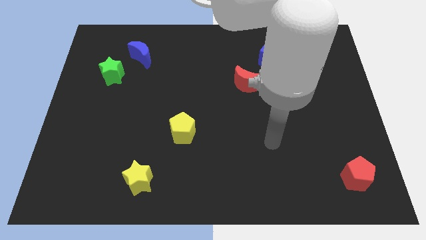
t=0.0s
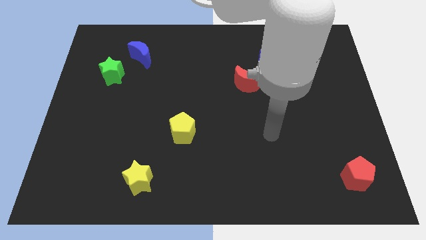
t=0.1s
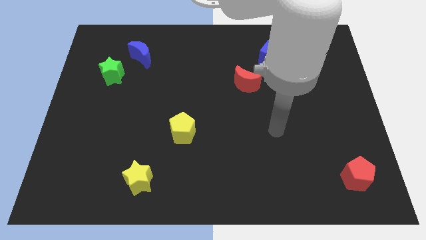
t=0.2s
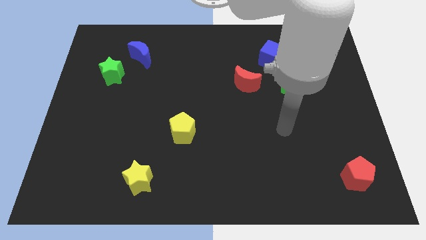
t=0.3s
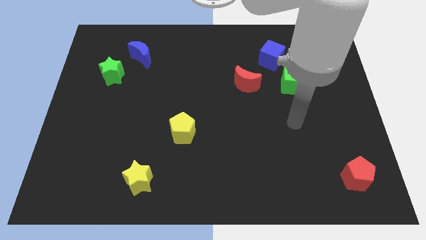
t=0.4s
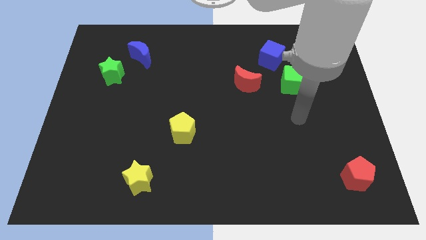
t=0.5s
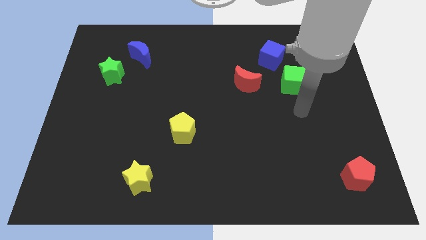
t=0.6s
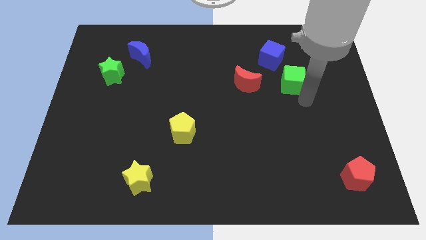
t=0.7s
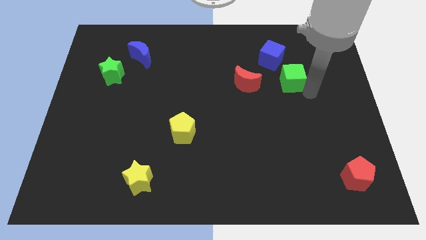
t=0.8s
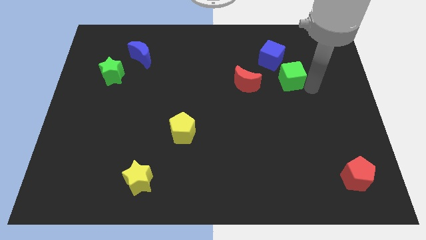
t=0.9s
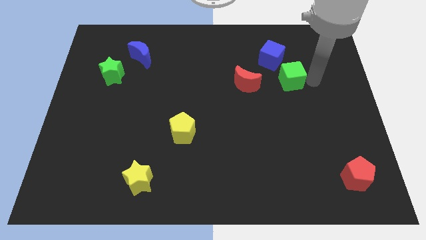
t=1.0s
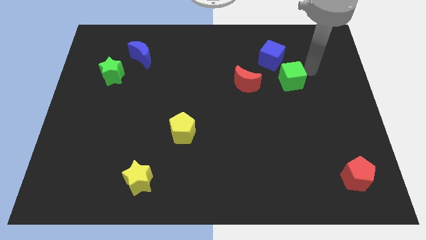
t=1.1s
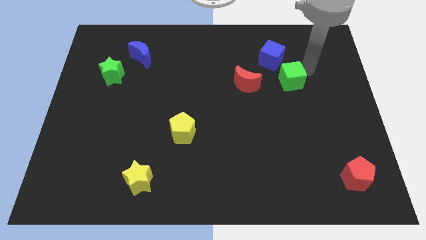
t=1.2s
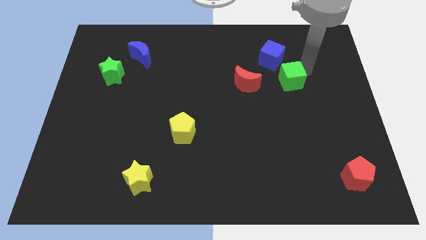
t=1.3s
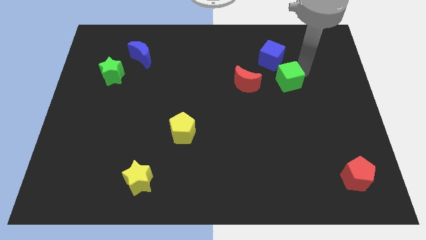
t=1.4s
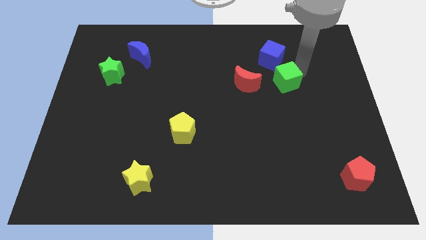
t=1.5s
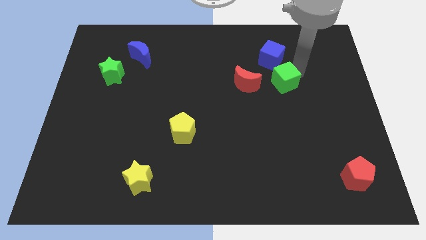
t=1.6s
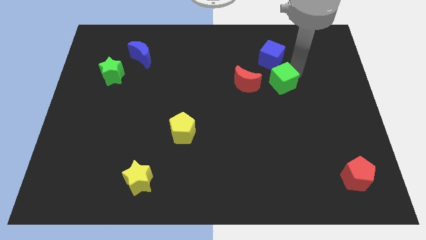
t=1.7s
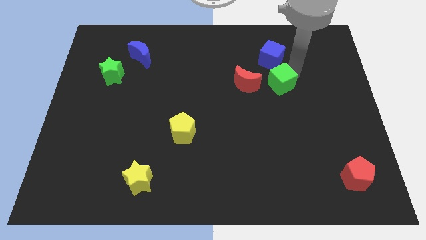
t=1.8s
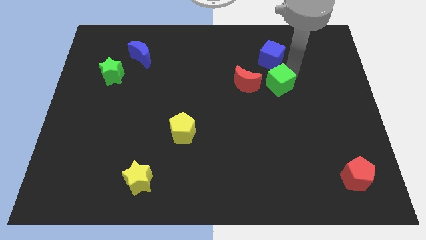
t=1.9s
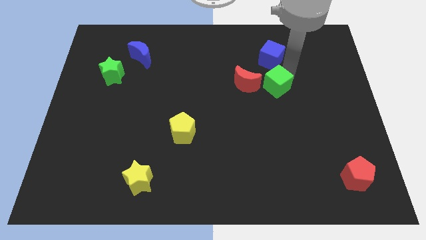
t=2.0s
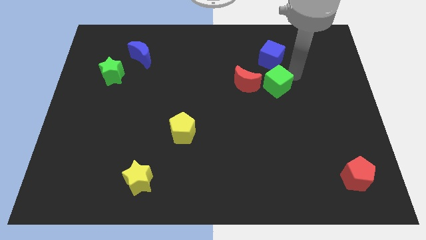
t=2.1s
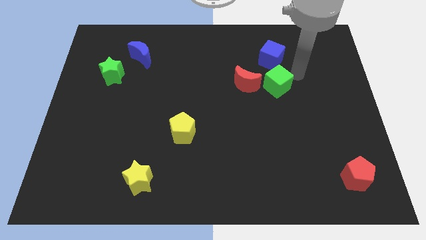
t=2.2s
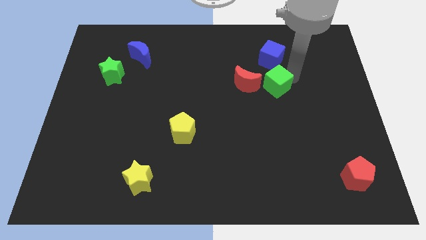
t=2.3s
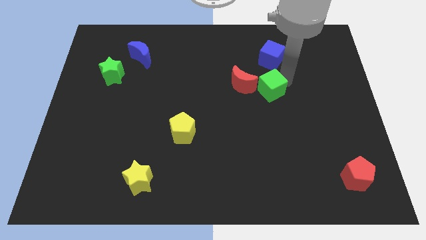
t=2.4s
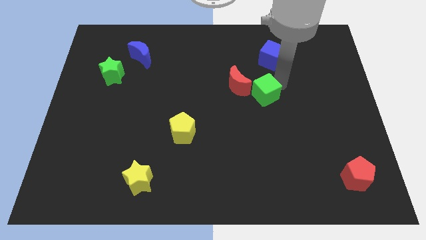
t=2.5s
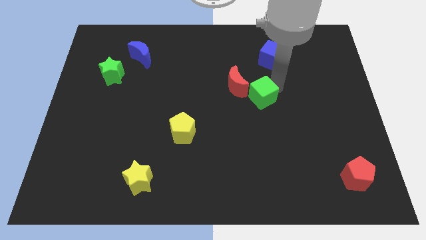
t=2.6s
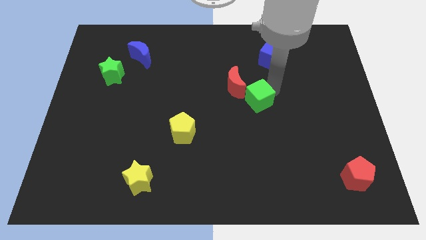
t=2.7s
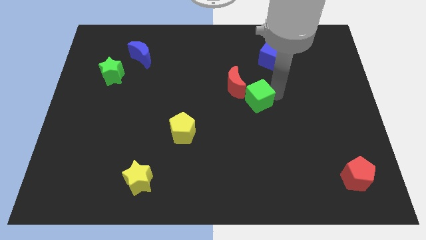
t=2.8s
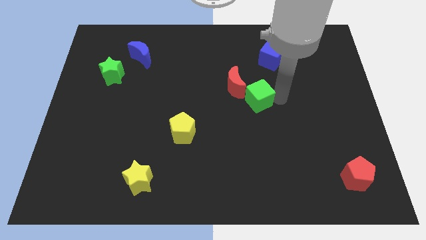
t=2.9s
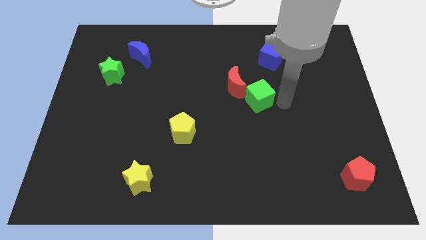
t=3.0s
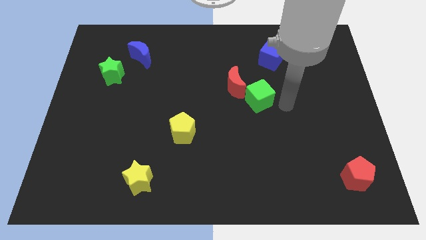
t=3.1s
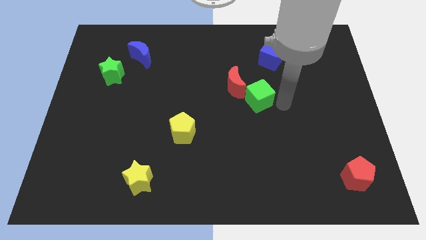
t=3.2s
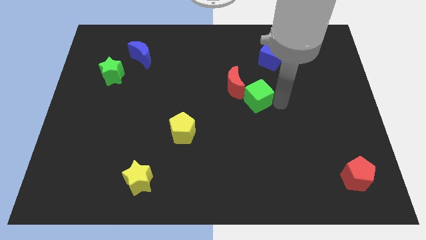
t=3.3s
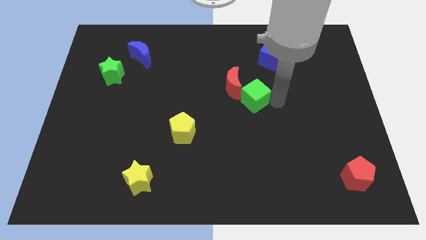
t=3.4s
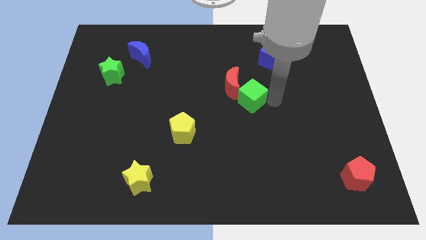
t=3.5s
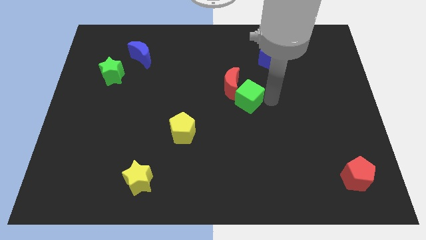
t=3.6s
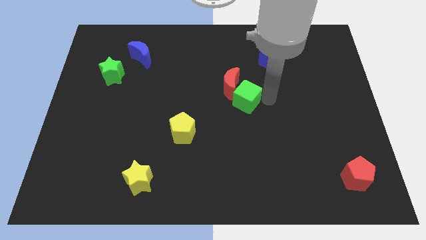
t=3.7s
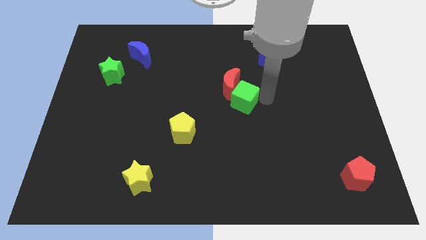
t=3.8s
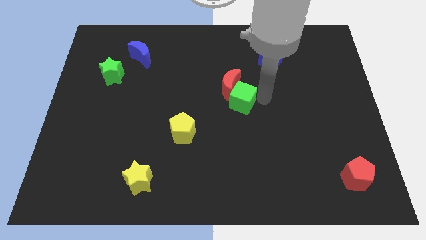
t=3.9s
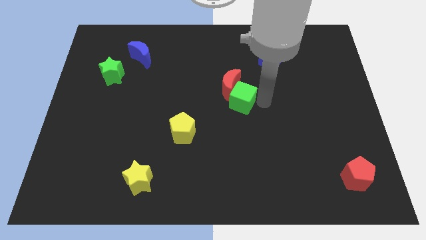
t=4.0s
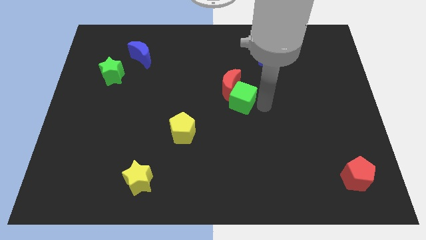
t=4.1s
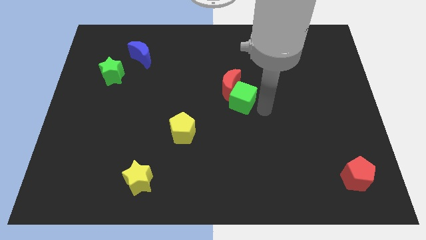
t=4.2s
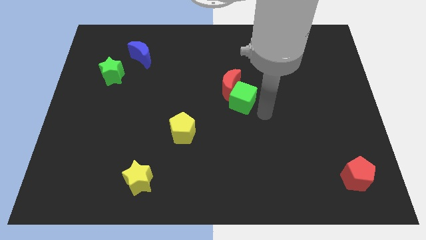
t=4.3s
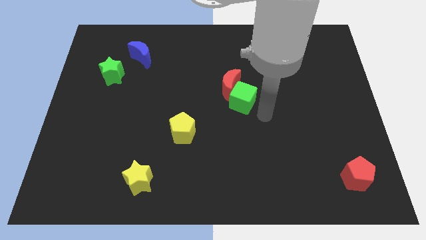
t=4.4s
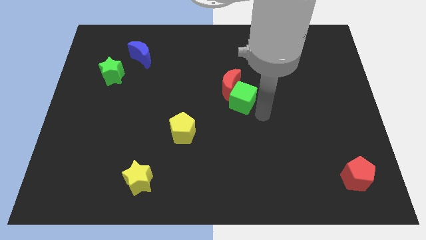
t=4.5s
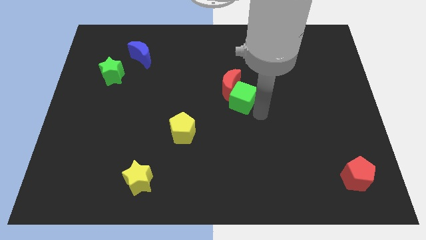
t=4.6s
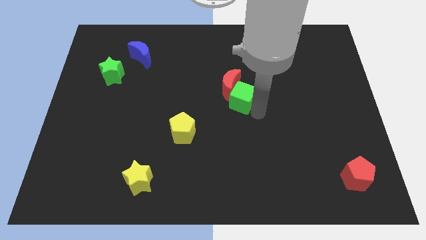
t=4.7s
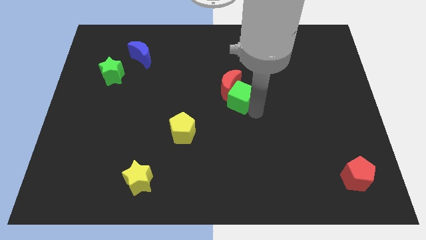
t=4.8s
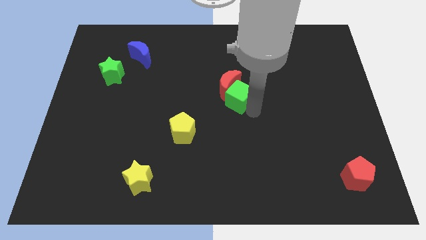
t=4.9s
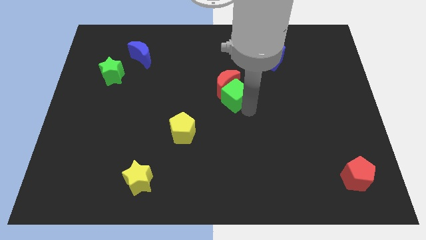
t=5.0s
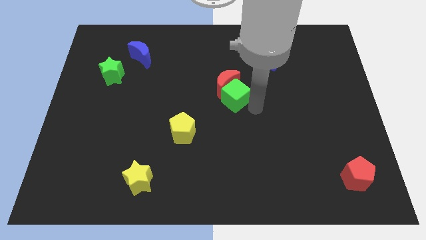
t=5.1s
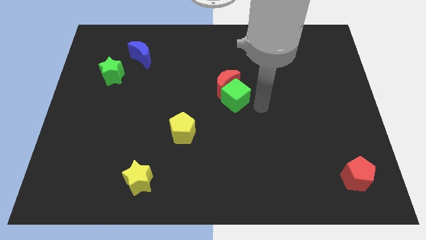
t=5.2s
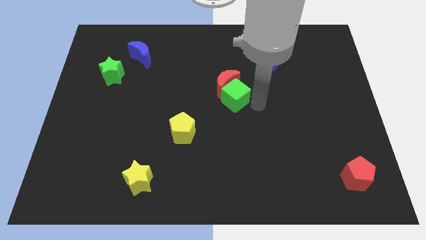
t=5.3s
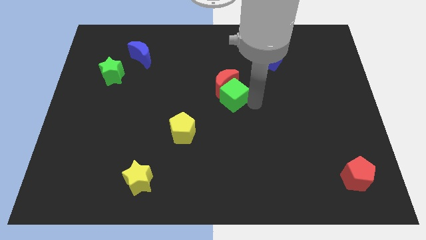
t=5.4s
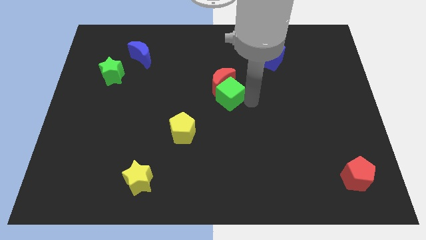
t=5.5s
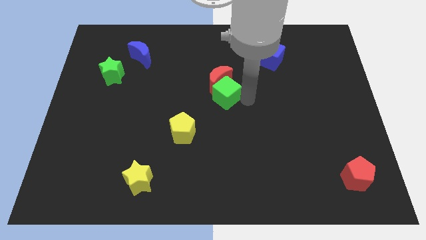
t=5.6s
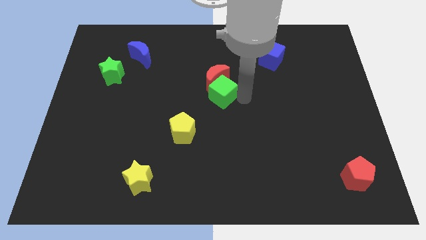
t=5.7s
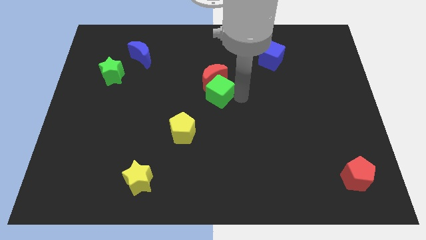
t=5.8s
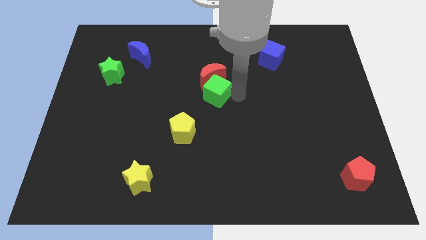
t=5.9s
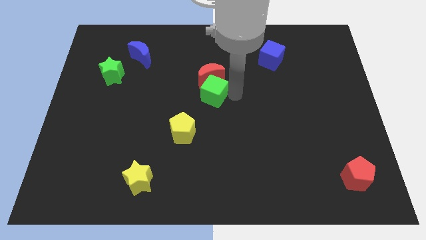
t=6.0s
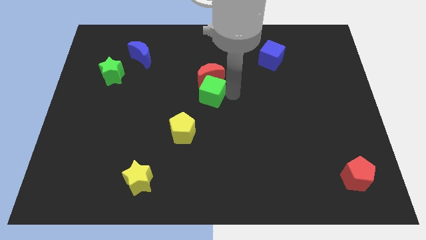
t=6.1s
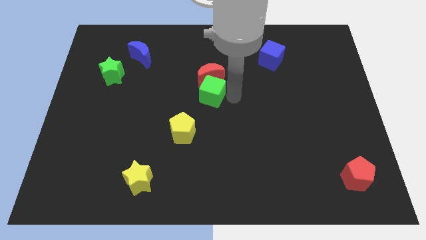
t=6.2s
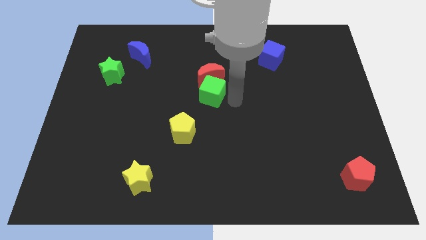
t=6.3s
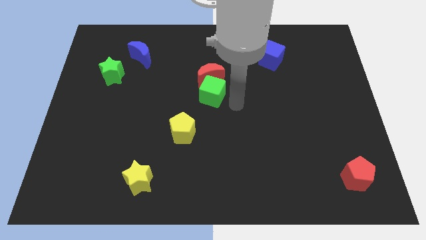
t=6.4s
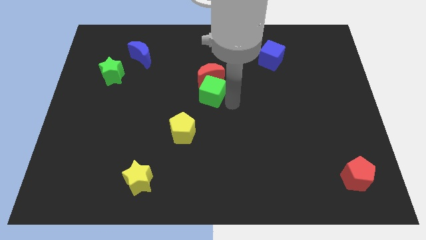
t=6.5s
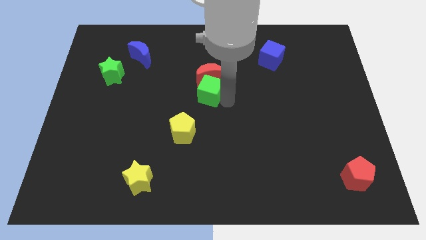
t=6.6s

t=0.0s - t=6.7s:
slide the green cube to the left

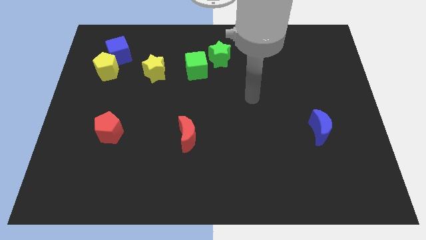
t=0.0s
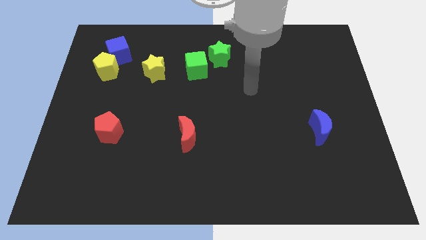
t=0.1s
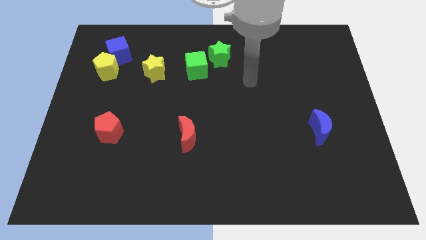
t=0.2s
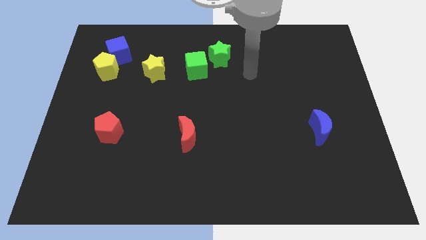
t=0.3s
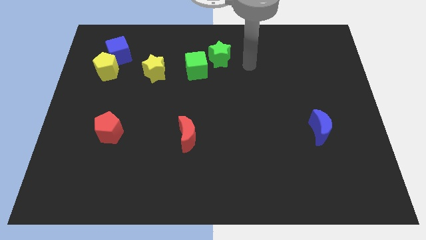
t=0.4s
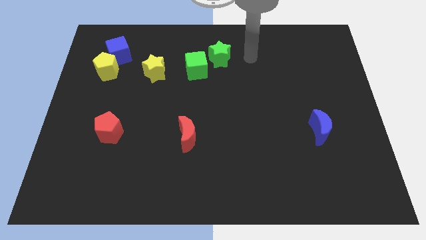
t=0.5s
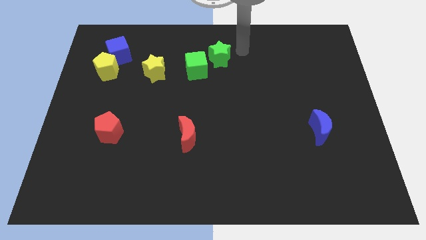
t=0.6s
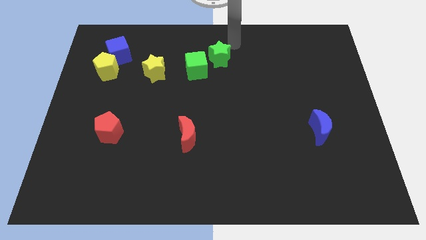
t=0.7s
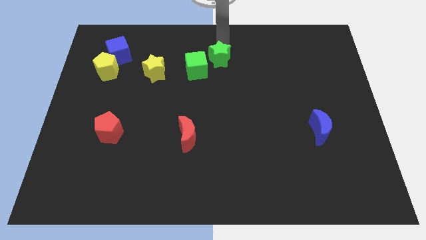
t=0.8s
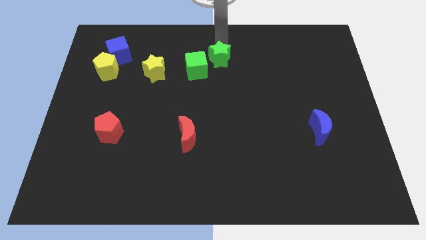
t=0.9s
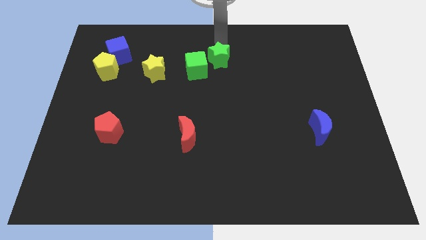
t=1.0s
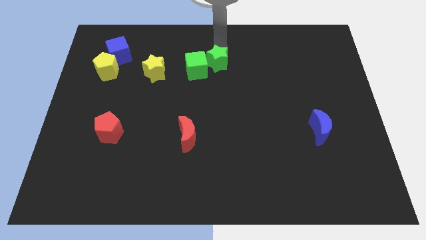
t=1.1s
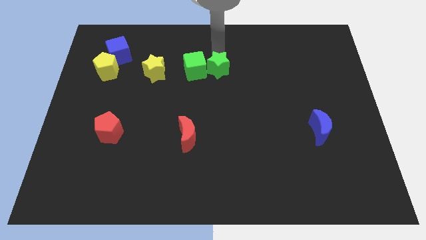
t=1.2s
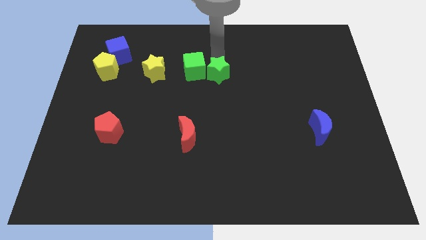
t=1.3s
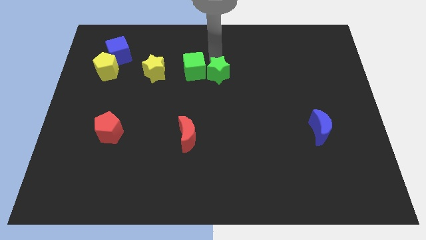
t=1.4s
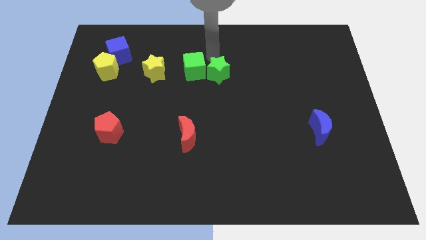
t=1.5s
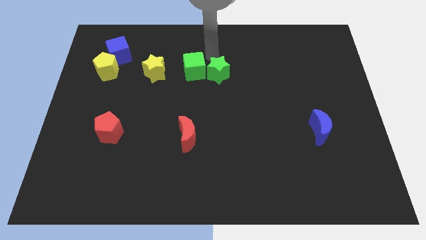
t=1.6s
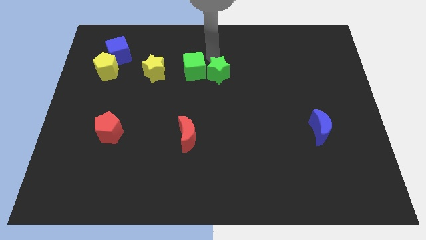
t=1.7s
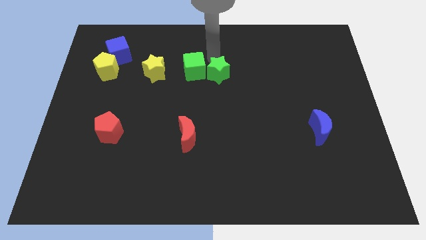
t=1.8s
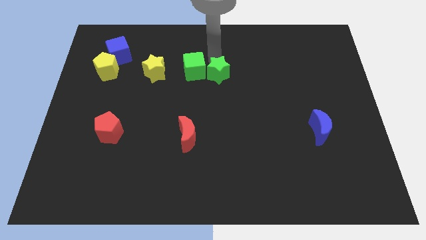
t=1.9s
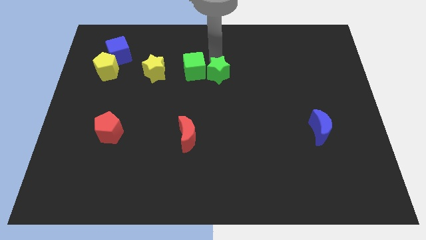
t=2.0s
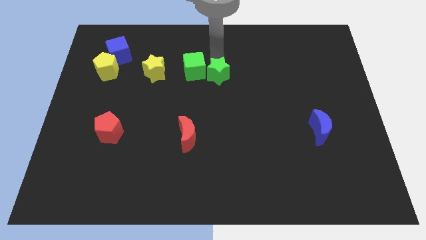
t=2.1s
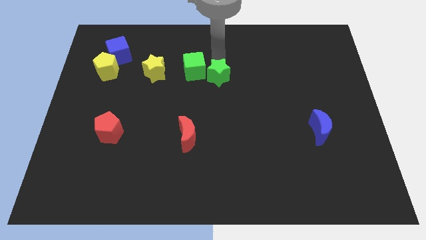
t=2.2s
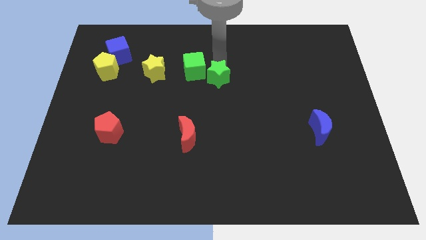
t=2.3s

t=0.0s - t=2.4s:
slightly push the green star downwards
